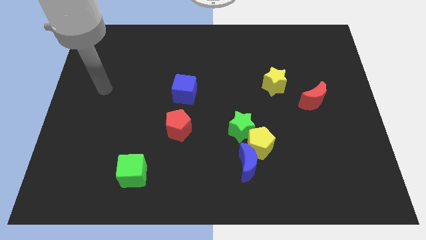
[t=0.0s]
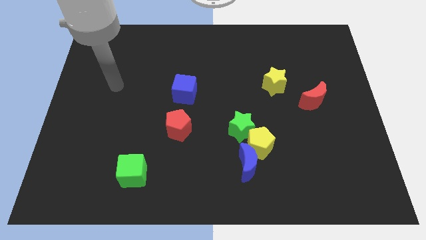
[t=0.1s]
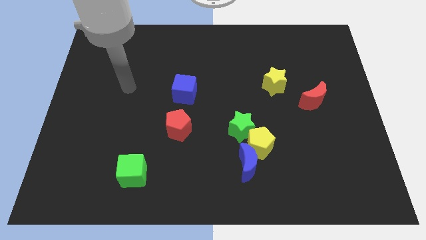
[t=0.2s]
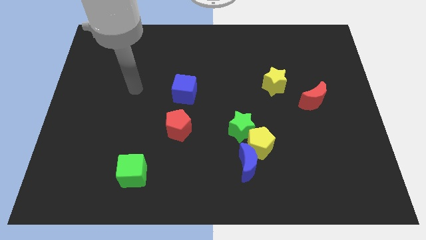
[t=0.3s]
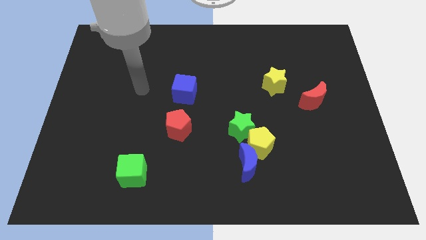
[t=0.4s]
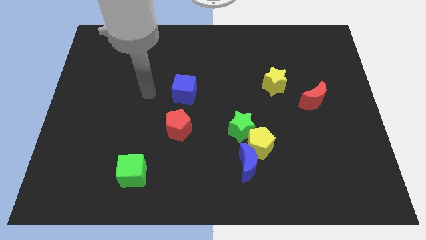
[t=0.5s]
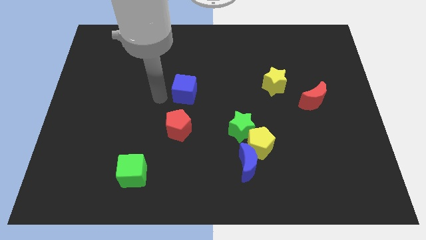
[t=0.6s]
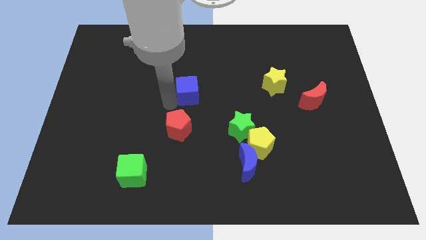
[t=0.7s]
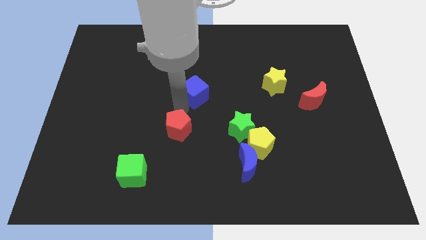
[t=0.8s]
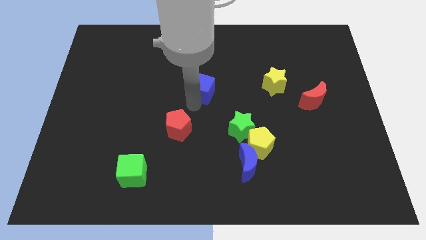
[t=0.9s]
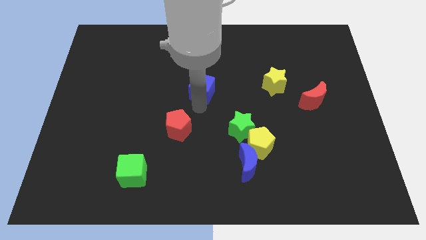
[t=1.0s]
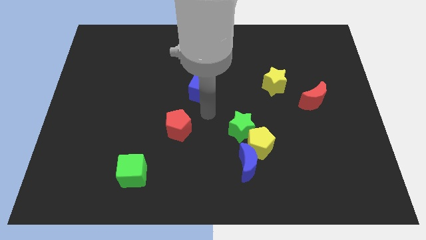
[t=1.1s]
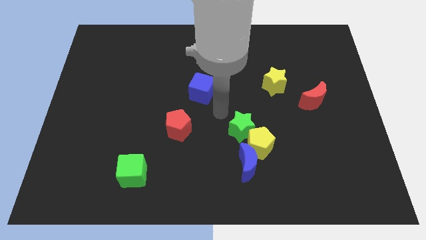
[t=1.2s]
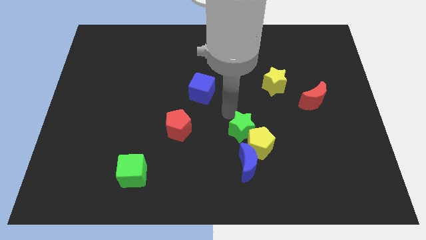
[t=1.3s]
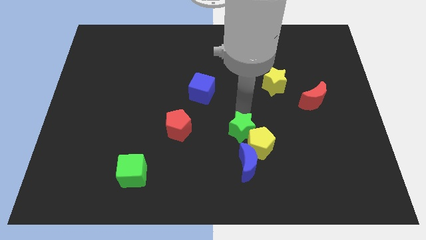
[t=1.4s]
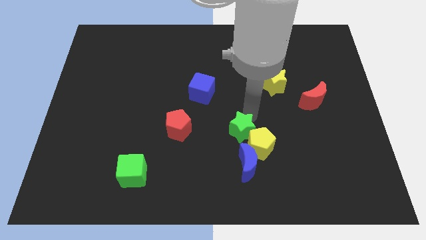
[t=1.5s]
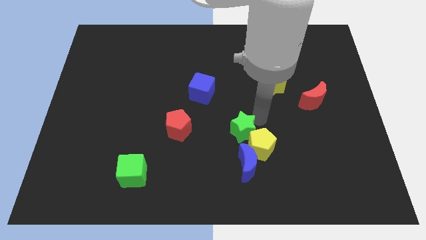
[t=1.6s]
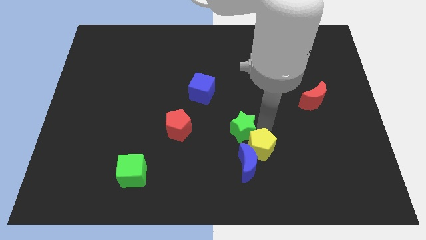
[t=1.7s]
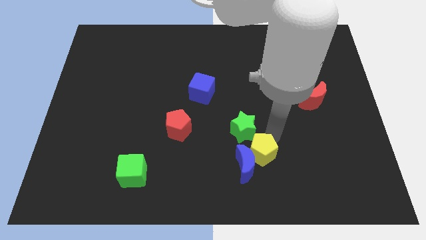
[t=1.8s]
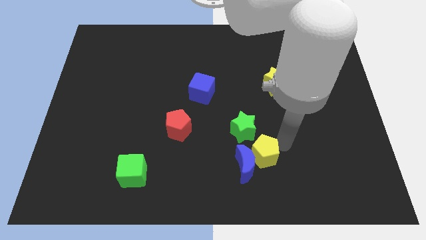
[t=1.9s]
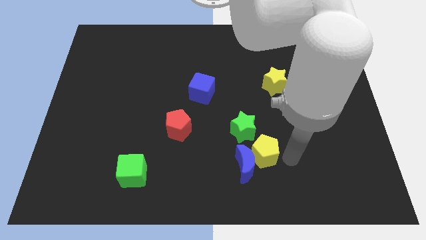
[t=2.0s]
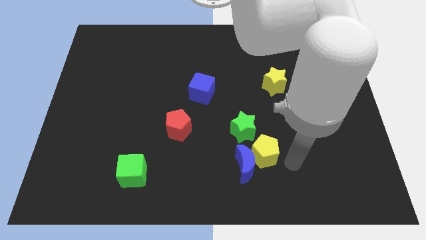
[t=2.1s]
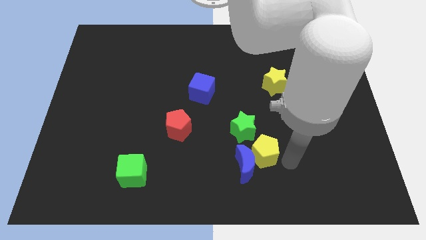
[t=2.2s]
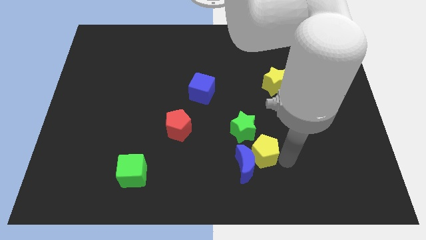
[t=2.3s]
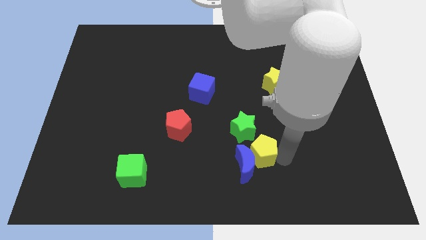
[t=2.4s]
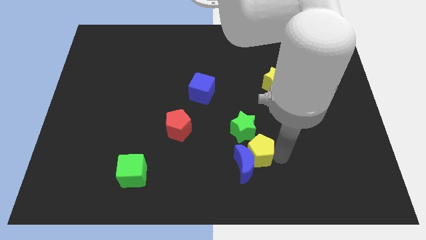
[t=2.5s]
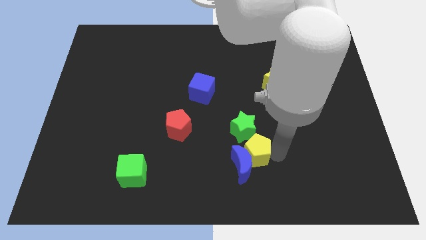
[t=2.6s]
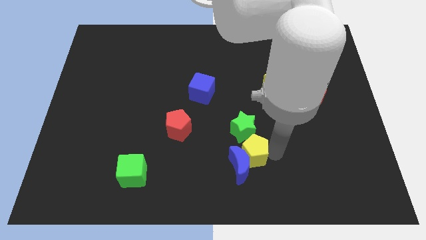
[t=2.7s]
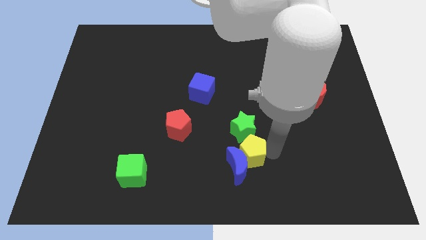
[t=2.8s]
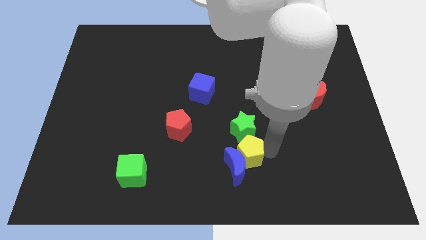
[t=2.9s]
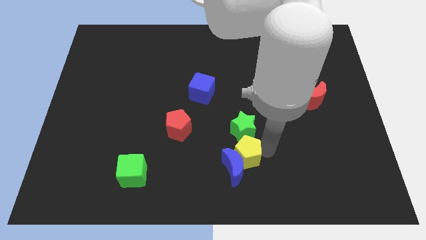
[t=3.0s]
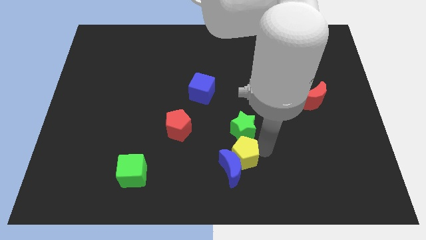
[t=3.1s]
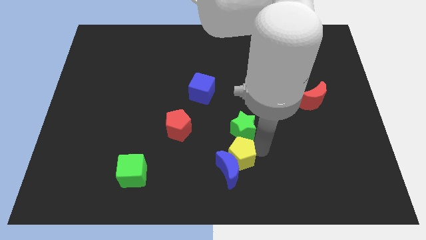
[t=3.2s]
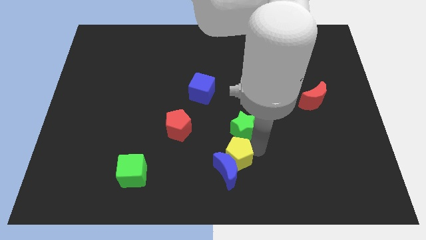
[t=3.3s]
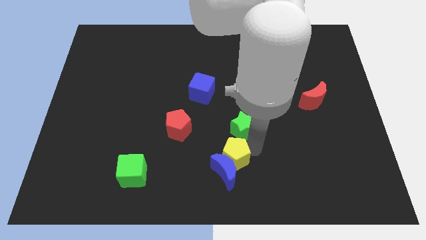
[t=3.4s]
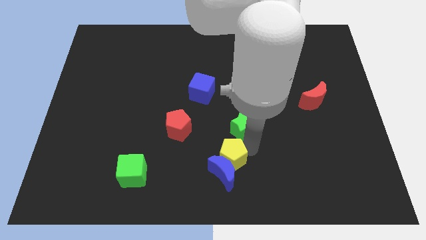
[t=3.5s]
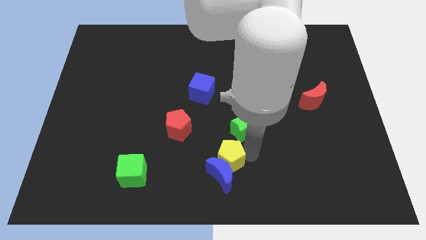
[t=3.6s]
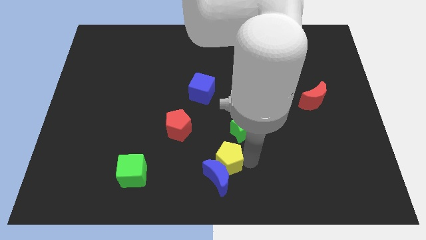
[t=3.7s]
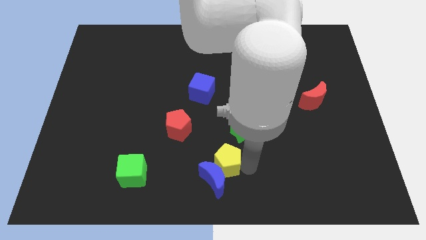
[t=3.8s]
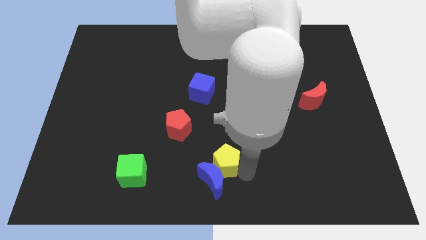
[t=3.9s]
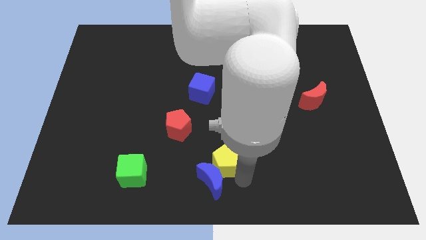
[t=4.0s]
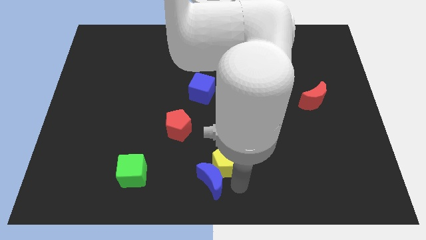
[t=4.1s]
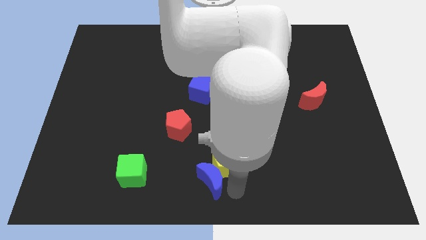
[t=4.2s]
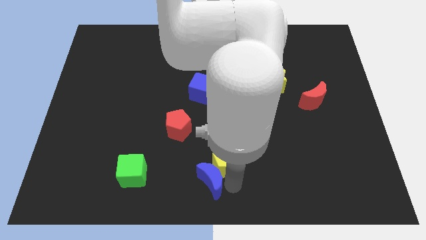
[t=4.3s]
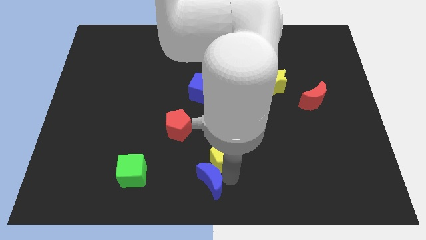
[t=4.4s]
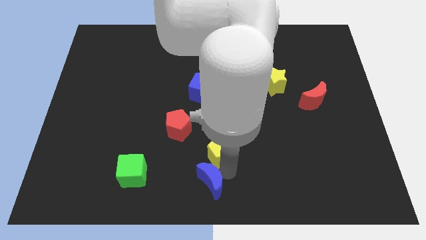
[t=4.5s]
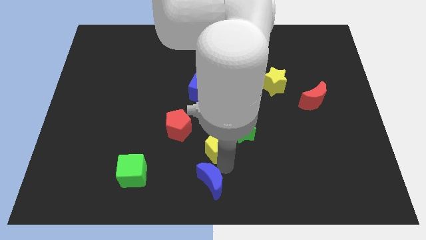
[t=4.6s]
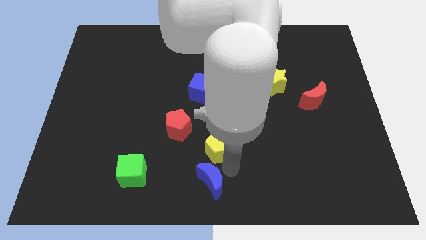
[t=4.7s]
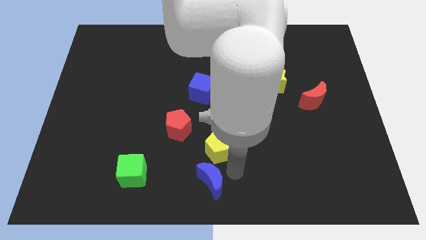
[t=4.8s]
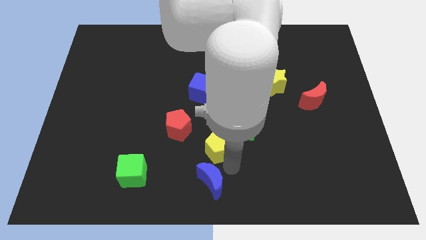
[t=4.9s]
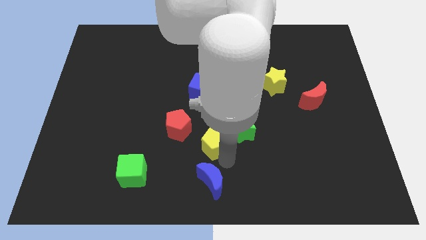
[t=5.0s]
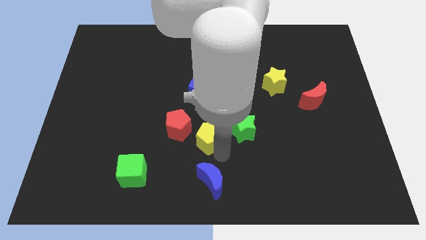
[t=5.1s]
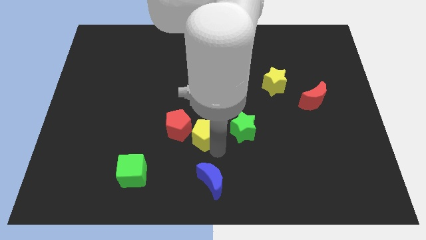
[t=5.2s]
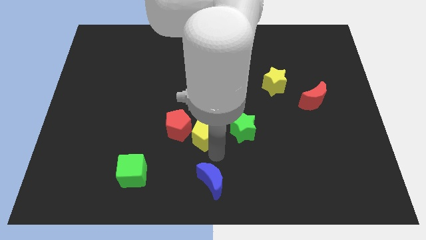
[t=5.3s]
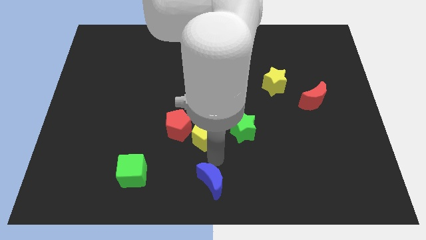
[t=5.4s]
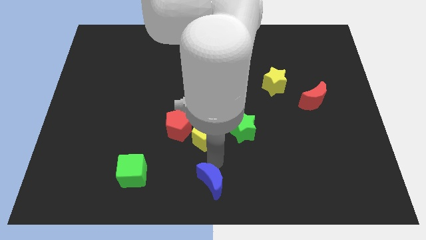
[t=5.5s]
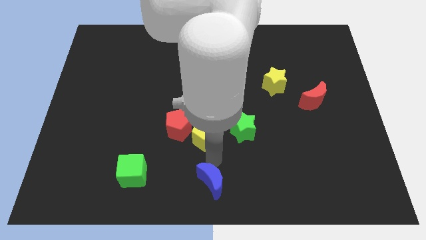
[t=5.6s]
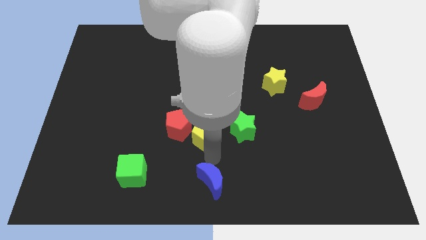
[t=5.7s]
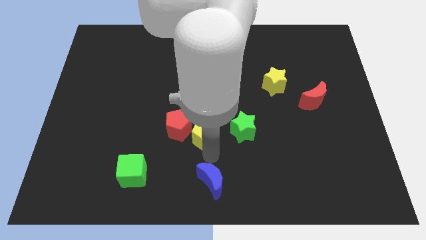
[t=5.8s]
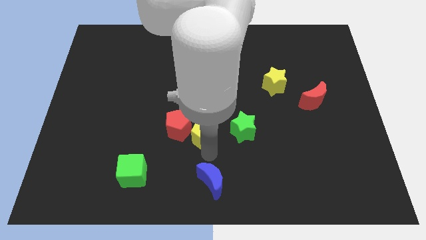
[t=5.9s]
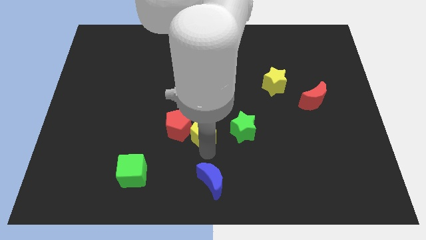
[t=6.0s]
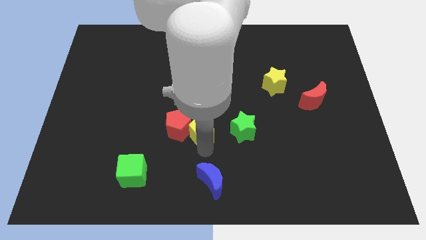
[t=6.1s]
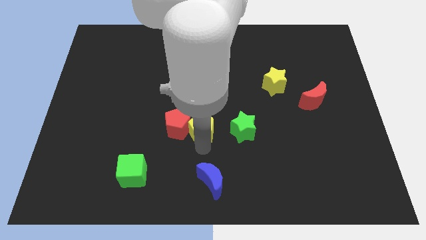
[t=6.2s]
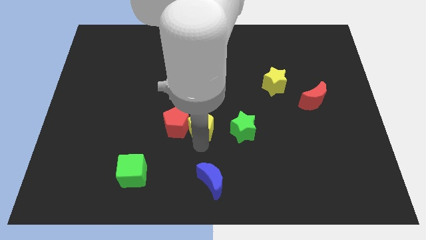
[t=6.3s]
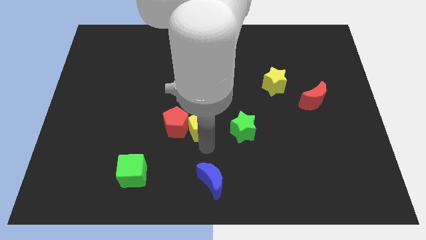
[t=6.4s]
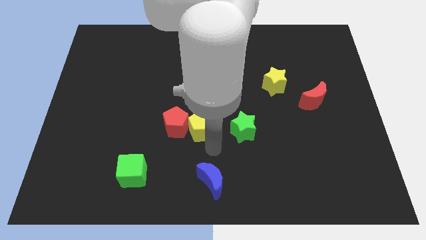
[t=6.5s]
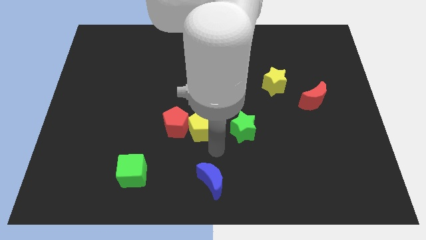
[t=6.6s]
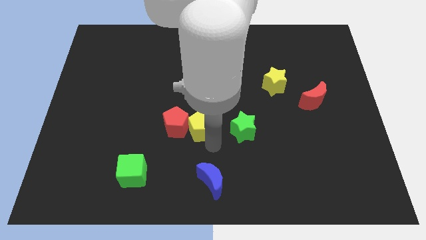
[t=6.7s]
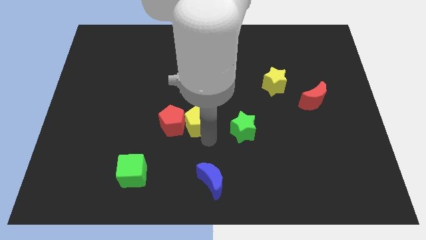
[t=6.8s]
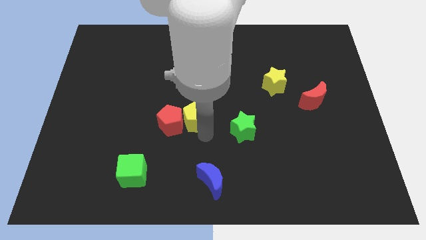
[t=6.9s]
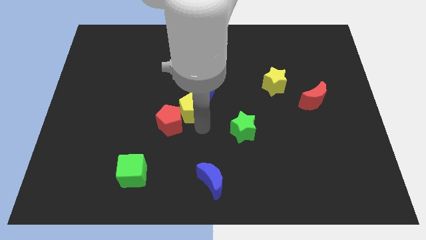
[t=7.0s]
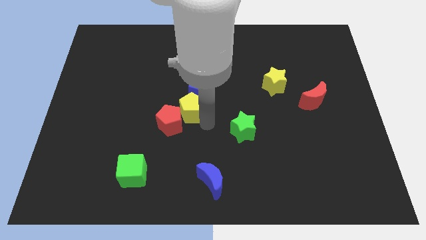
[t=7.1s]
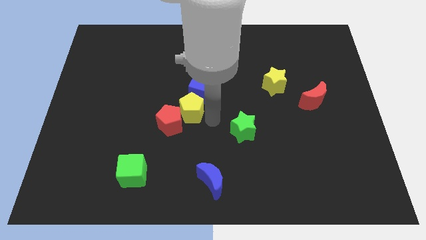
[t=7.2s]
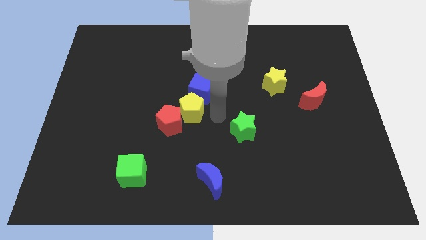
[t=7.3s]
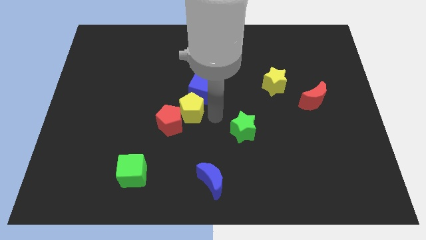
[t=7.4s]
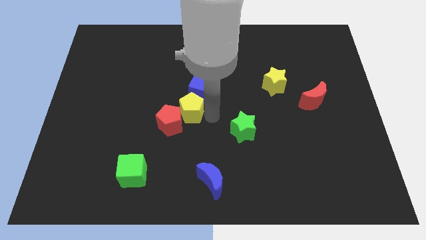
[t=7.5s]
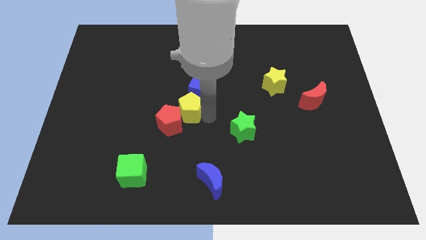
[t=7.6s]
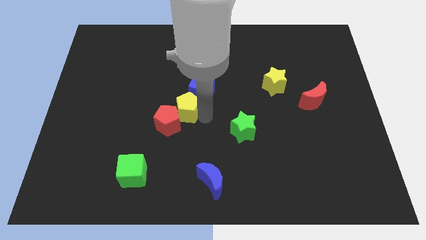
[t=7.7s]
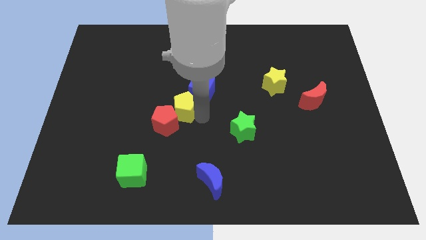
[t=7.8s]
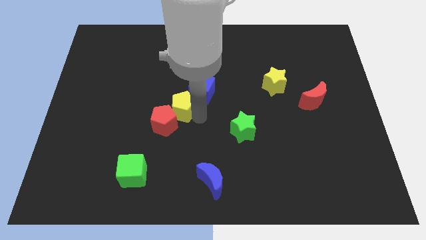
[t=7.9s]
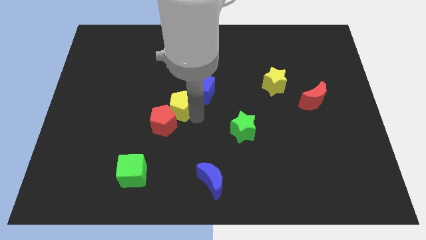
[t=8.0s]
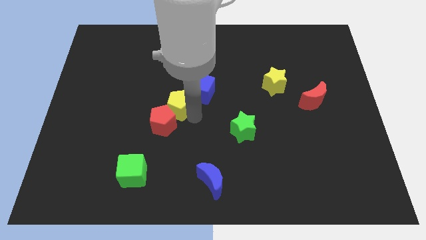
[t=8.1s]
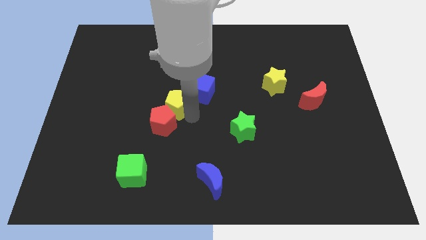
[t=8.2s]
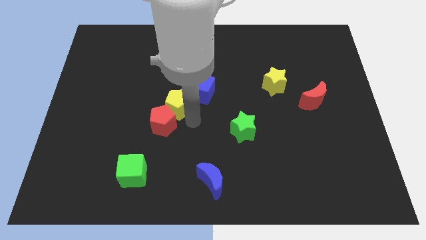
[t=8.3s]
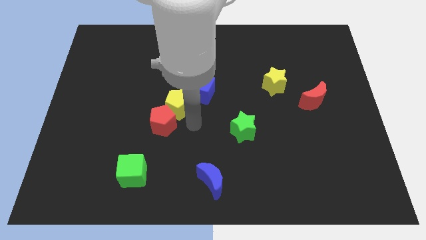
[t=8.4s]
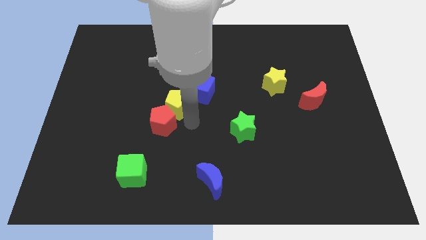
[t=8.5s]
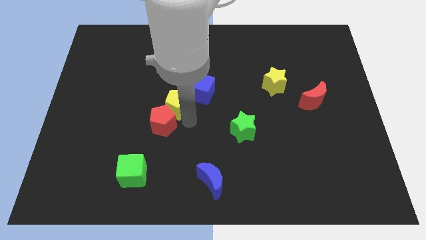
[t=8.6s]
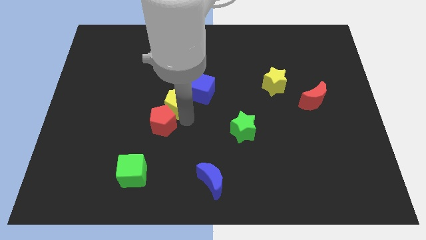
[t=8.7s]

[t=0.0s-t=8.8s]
slide the yellow pentagon diagonally upwards and left
